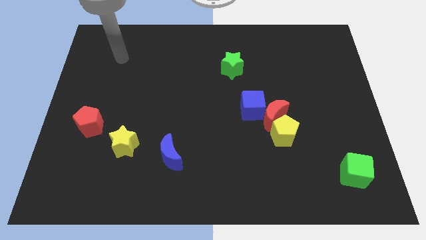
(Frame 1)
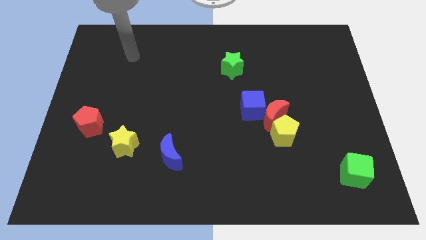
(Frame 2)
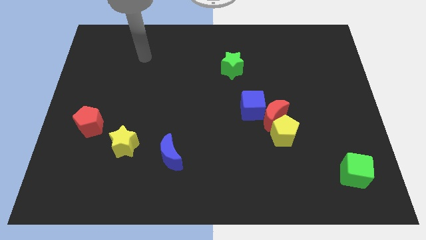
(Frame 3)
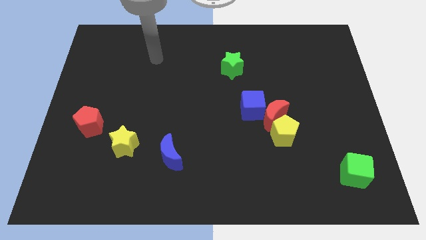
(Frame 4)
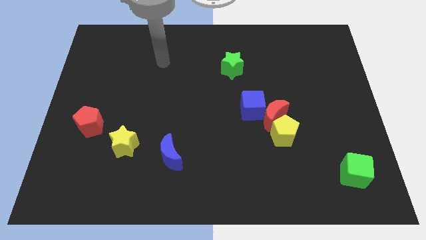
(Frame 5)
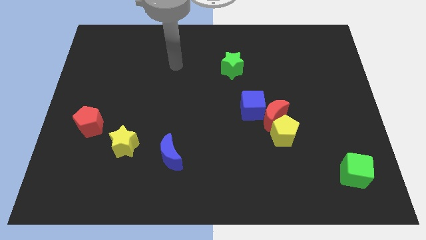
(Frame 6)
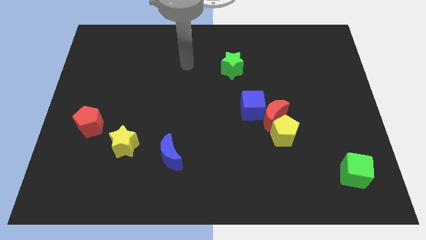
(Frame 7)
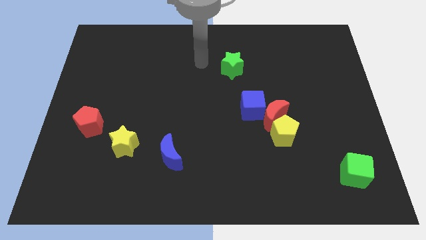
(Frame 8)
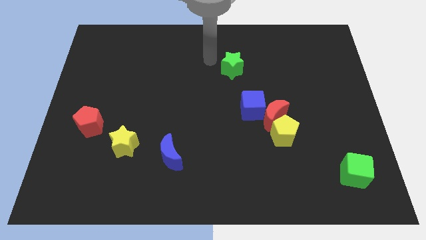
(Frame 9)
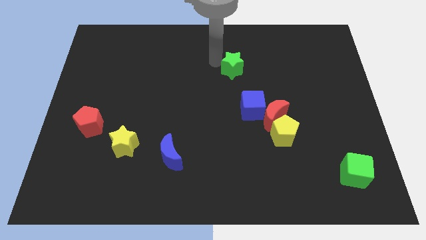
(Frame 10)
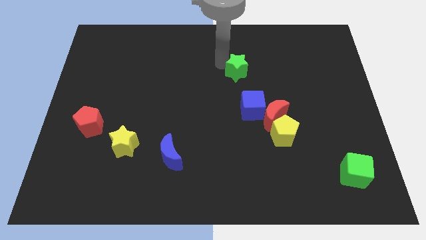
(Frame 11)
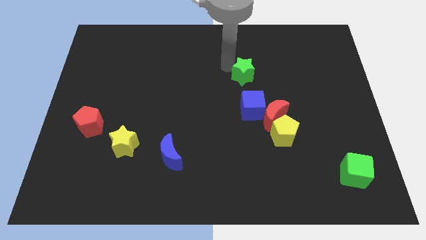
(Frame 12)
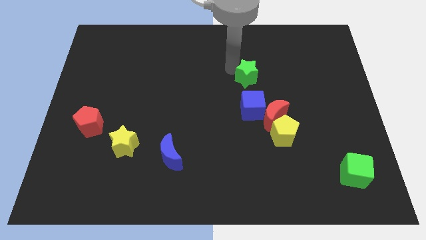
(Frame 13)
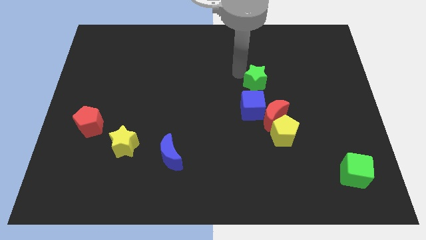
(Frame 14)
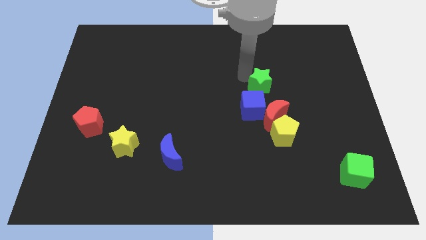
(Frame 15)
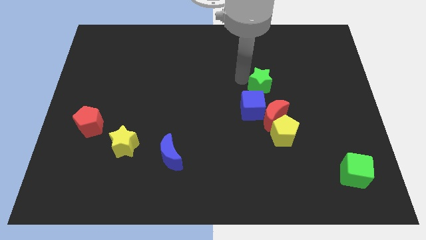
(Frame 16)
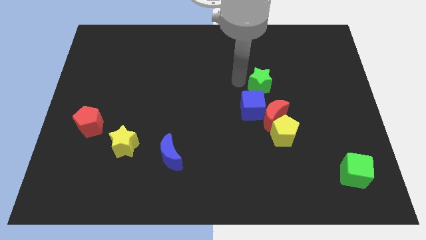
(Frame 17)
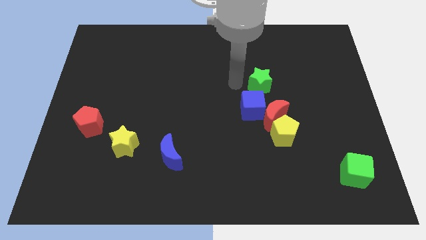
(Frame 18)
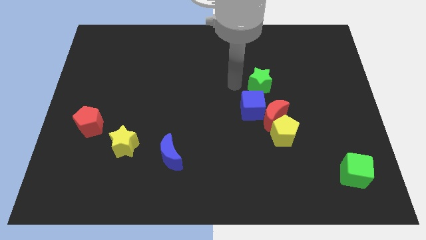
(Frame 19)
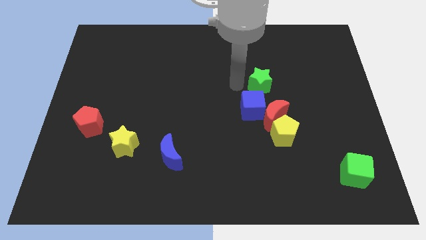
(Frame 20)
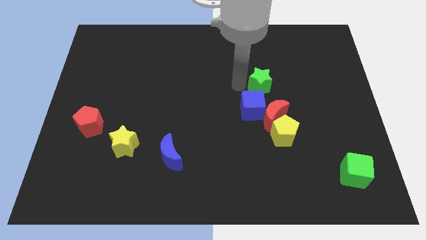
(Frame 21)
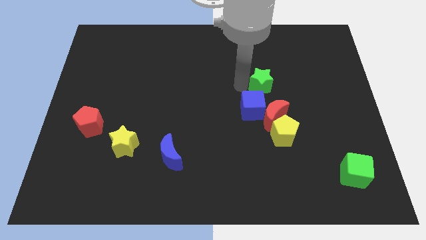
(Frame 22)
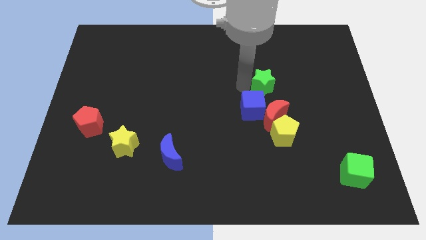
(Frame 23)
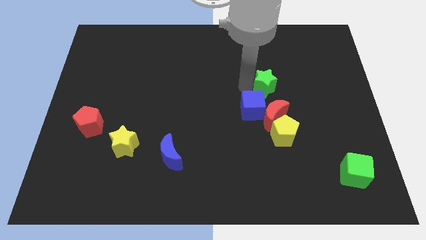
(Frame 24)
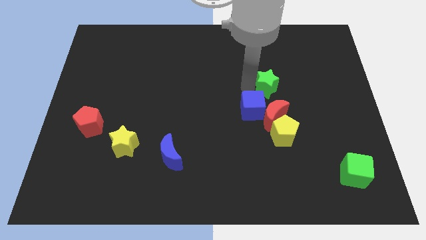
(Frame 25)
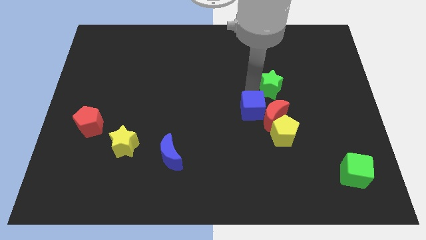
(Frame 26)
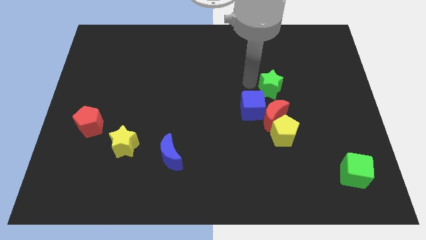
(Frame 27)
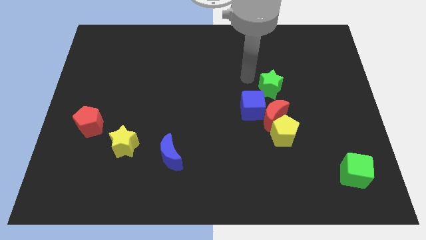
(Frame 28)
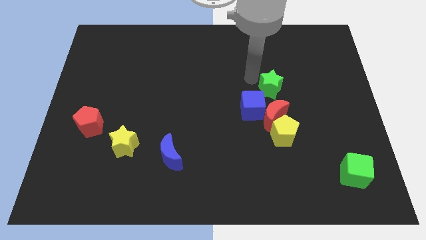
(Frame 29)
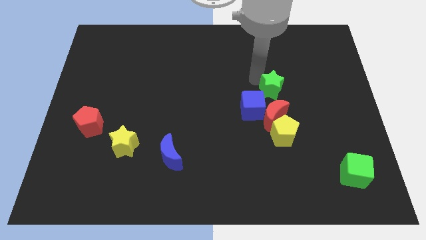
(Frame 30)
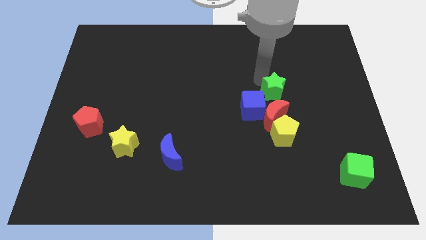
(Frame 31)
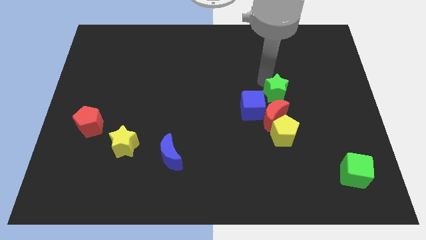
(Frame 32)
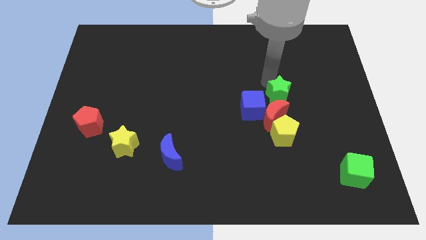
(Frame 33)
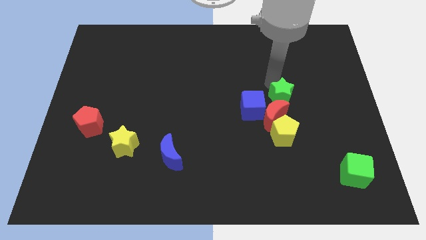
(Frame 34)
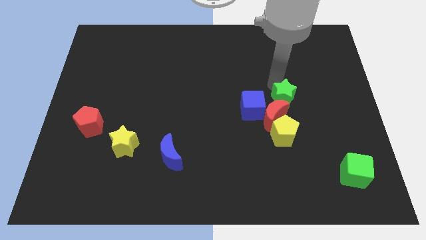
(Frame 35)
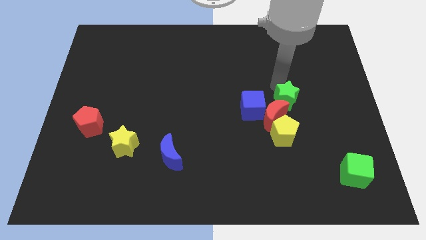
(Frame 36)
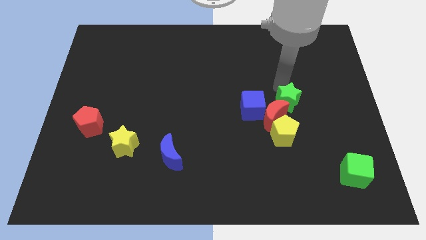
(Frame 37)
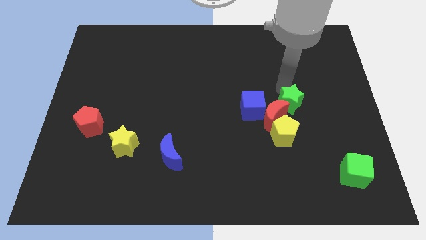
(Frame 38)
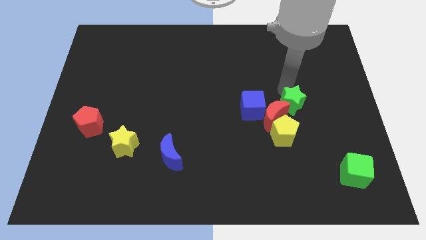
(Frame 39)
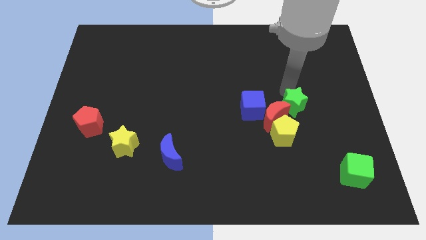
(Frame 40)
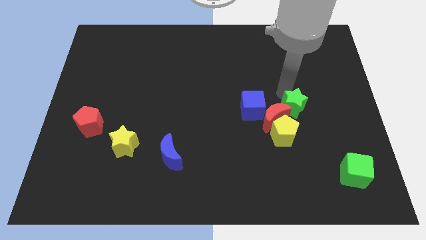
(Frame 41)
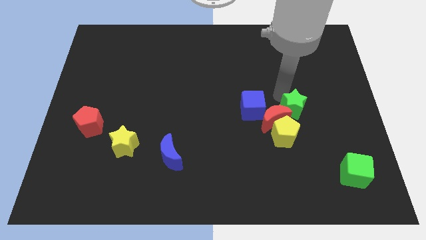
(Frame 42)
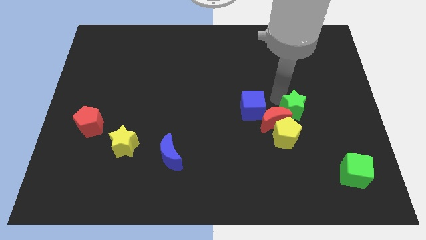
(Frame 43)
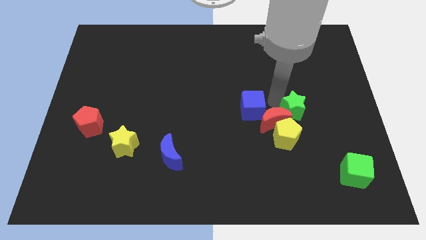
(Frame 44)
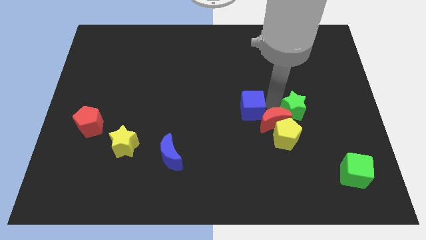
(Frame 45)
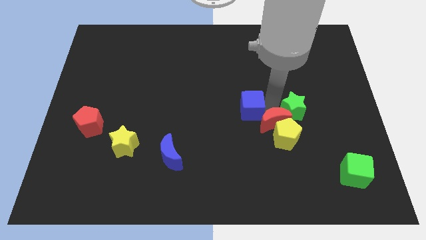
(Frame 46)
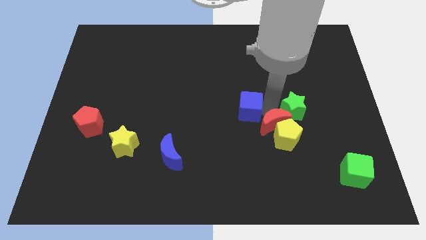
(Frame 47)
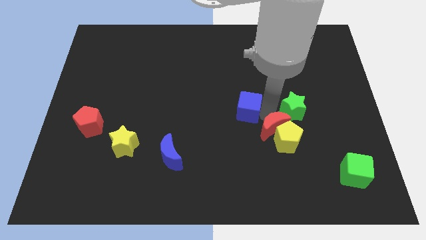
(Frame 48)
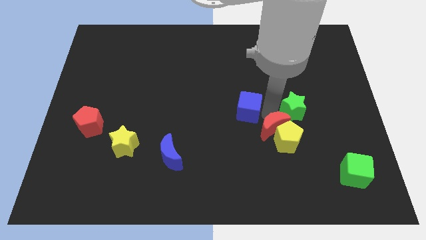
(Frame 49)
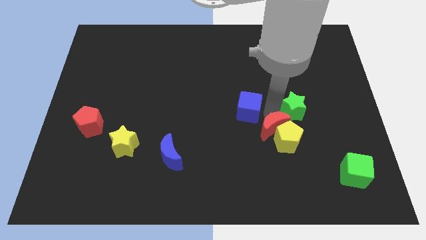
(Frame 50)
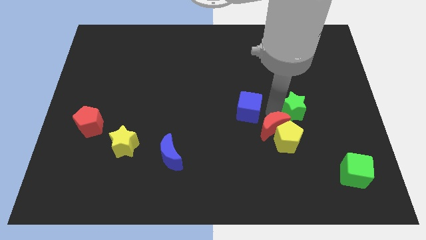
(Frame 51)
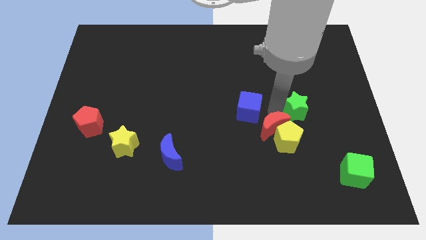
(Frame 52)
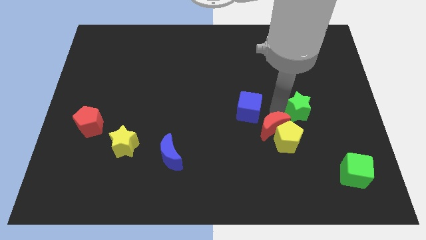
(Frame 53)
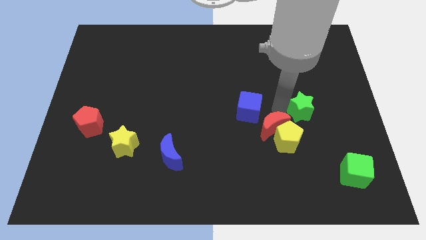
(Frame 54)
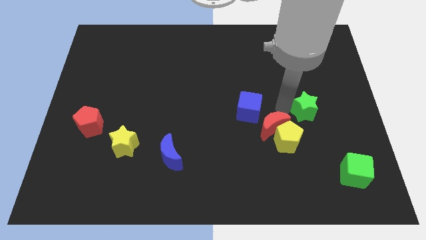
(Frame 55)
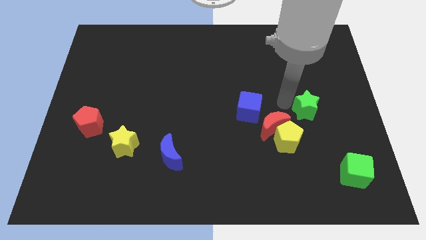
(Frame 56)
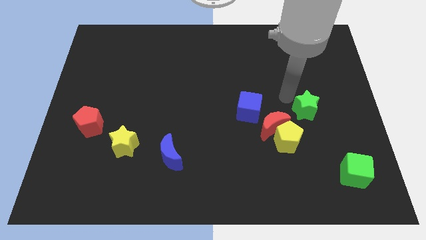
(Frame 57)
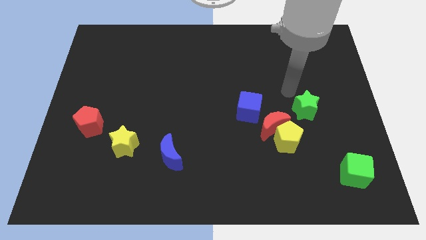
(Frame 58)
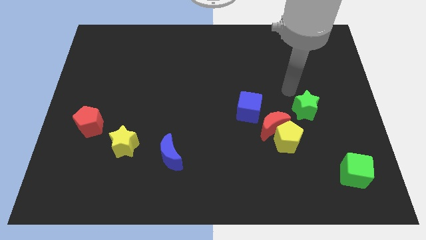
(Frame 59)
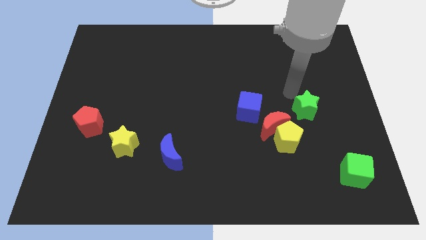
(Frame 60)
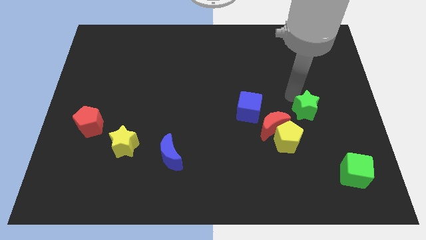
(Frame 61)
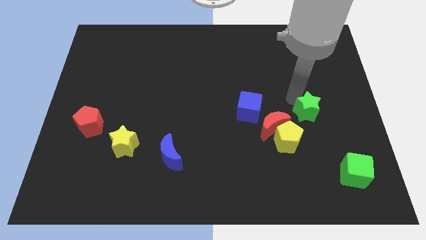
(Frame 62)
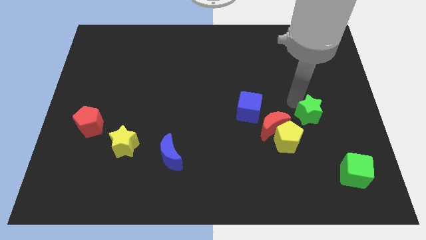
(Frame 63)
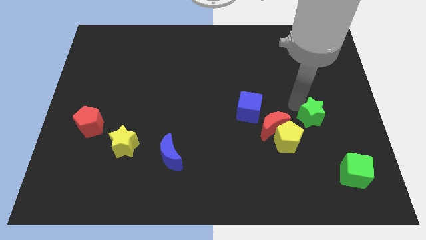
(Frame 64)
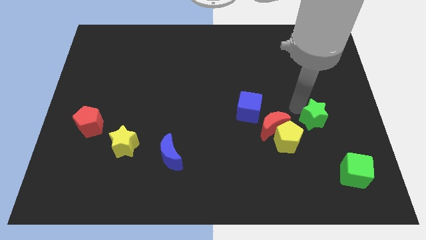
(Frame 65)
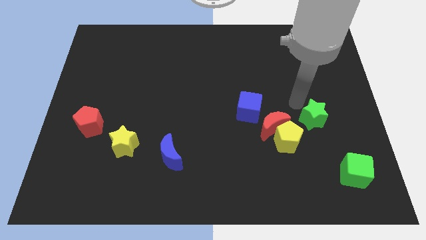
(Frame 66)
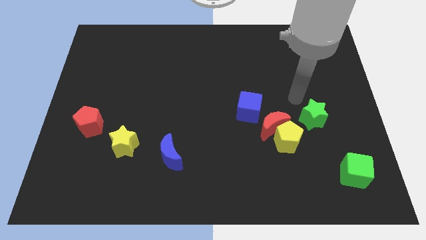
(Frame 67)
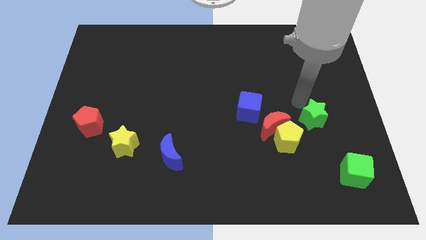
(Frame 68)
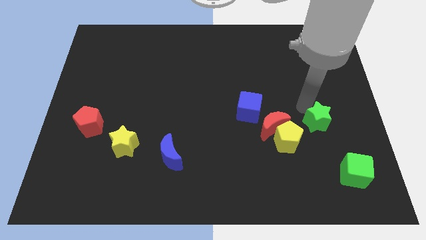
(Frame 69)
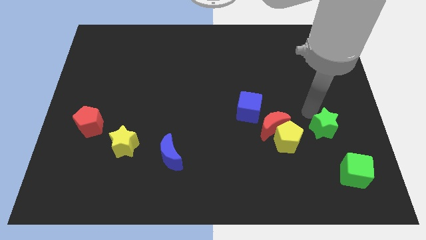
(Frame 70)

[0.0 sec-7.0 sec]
put the green star to the right side of the yellow pentagon

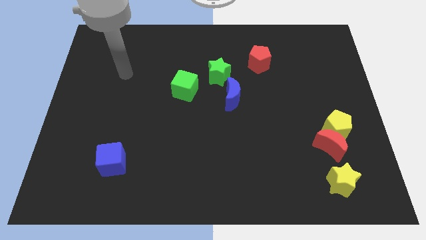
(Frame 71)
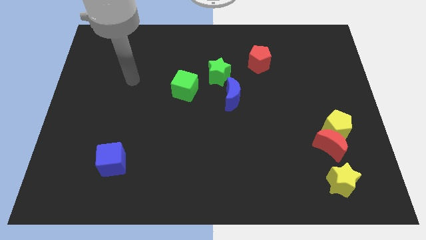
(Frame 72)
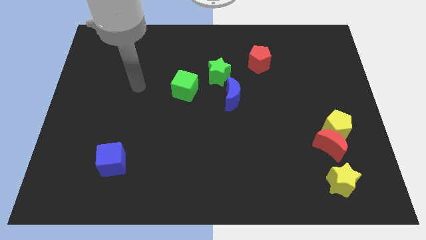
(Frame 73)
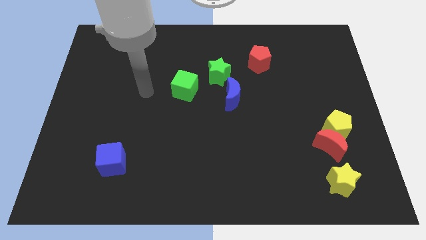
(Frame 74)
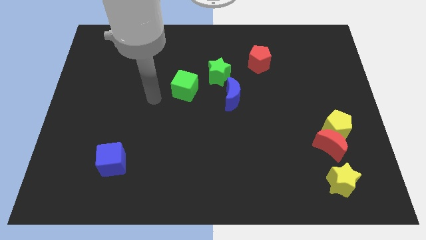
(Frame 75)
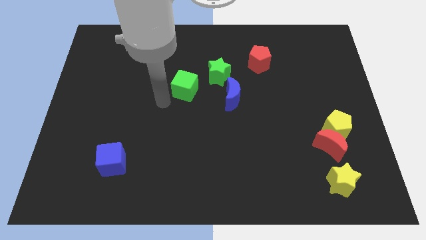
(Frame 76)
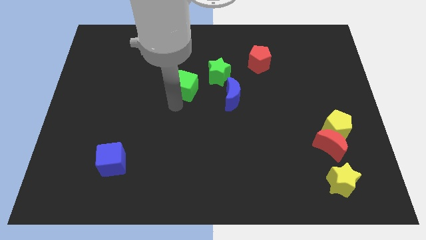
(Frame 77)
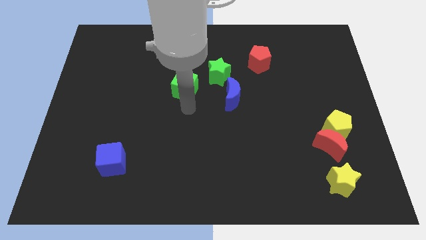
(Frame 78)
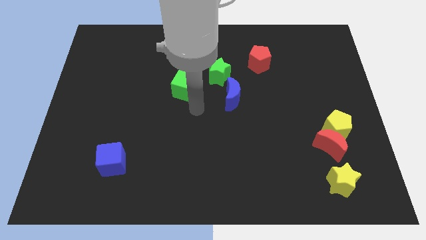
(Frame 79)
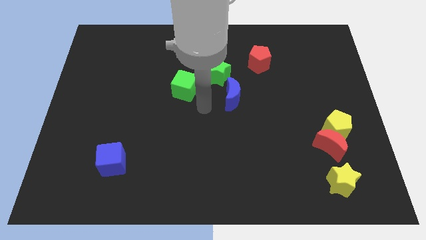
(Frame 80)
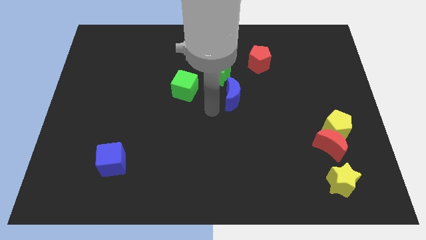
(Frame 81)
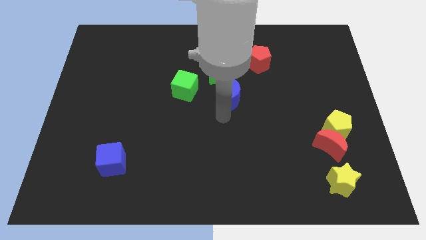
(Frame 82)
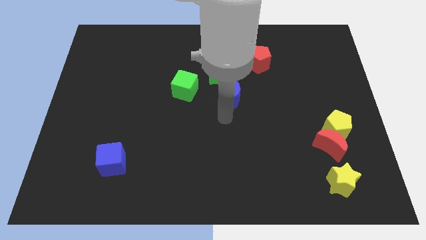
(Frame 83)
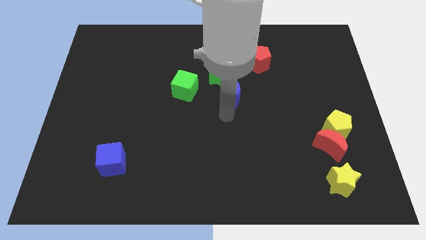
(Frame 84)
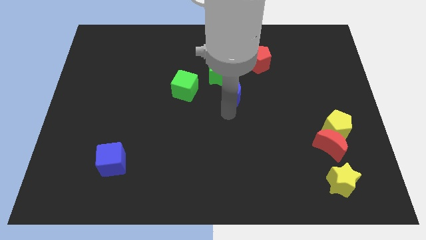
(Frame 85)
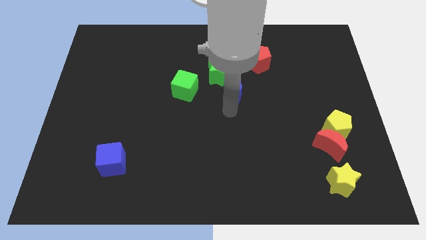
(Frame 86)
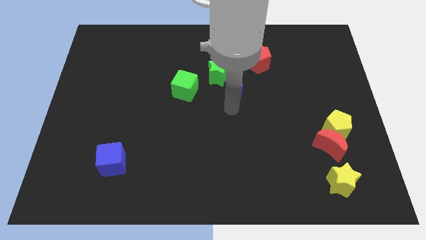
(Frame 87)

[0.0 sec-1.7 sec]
slide the blue moon to the bottom left side of the red pentagon
